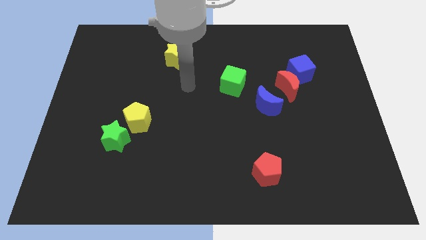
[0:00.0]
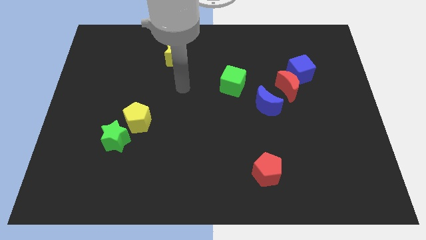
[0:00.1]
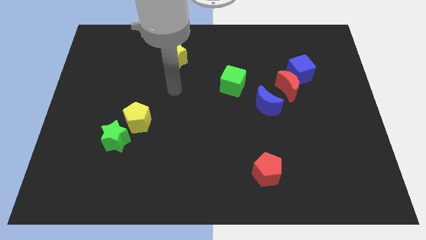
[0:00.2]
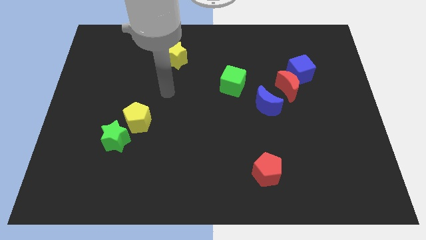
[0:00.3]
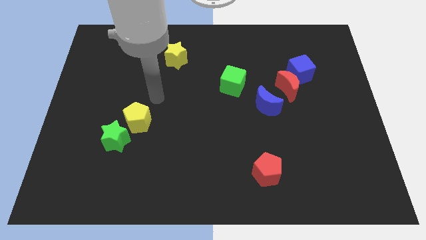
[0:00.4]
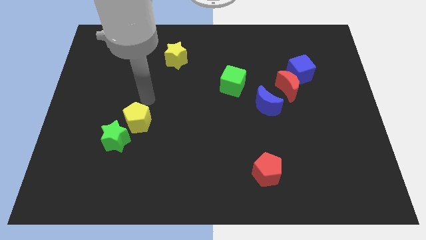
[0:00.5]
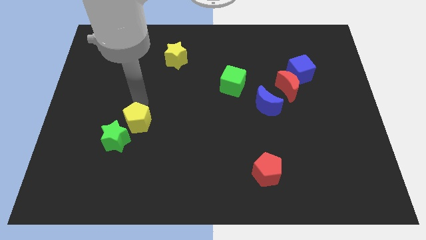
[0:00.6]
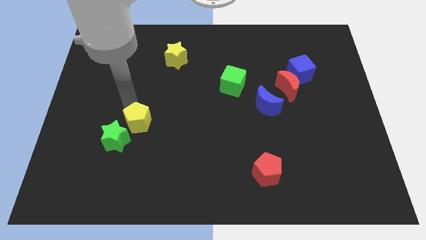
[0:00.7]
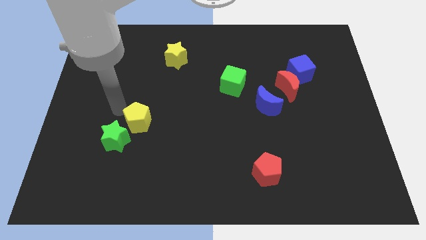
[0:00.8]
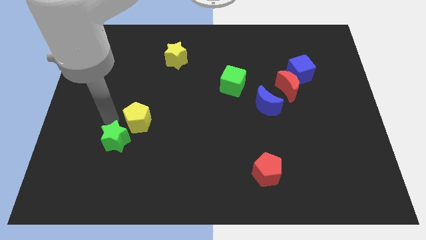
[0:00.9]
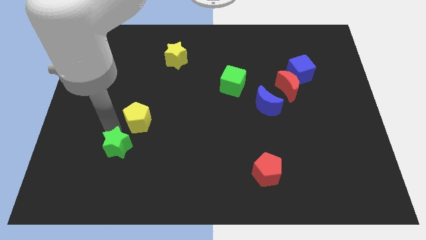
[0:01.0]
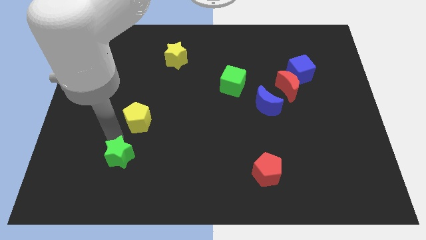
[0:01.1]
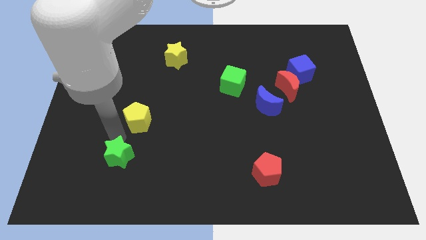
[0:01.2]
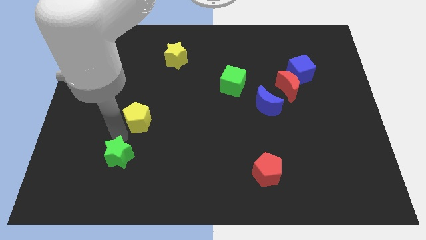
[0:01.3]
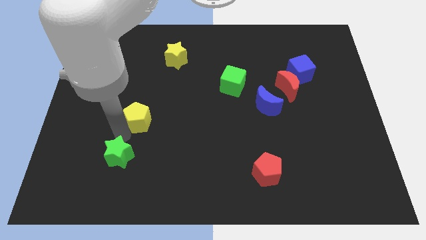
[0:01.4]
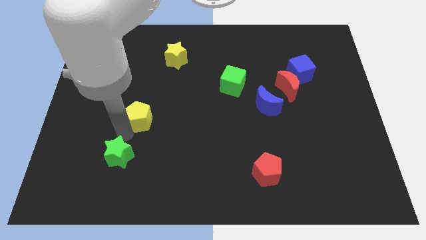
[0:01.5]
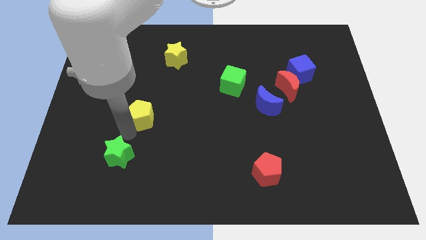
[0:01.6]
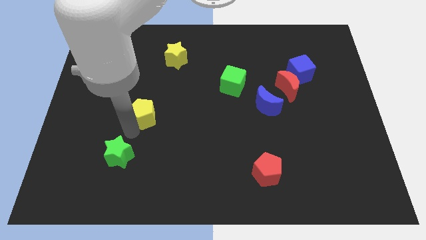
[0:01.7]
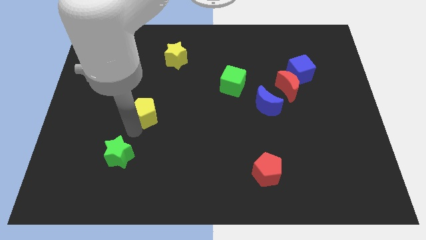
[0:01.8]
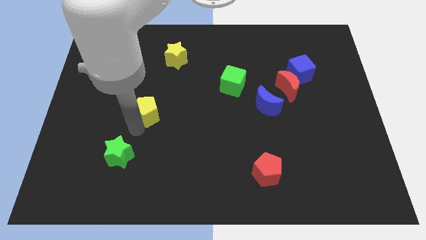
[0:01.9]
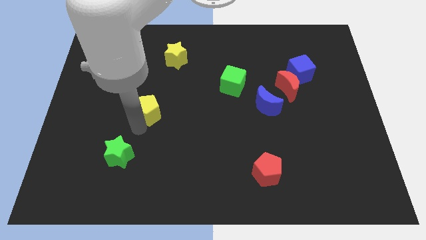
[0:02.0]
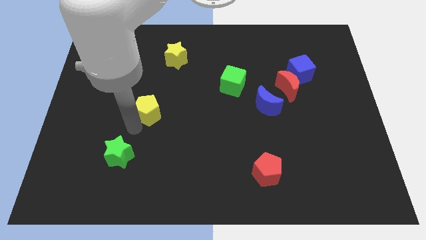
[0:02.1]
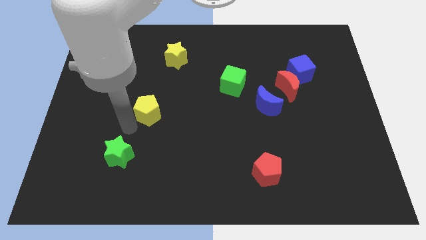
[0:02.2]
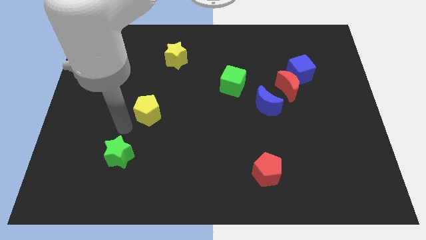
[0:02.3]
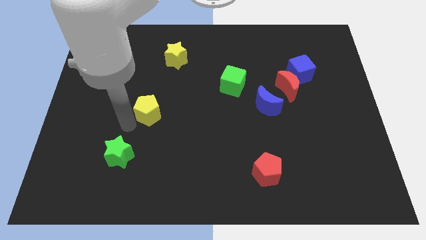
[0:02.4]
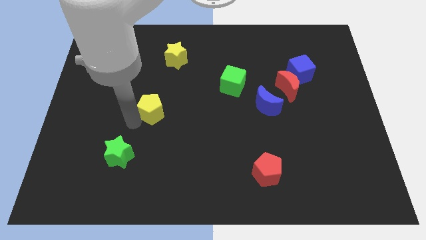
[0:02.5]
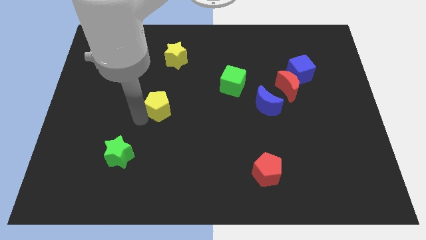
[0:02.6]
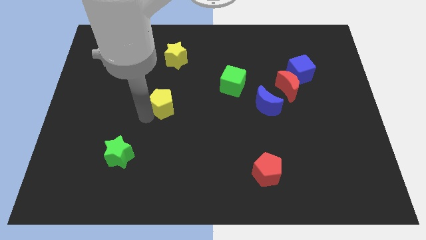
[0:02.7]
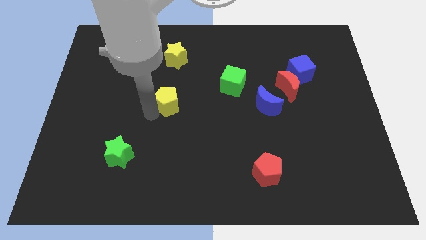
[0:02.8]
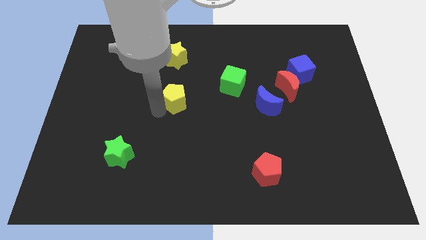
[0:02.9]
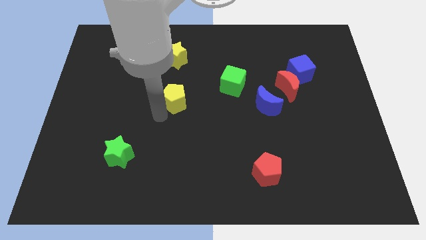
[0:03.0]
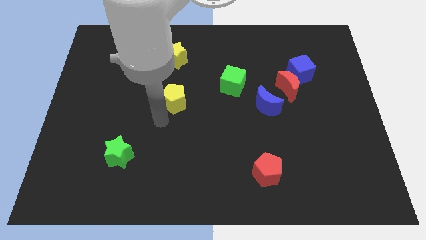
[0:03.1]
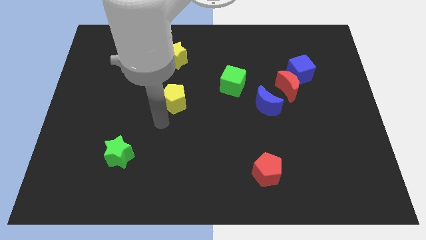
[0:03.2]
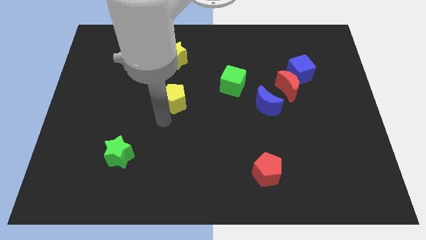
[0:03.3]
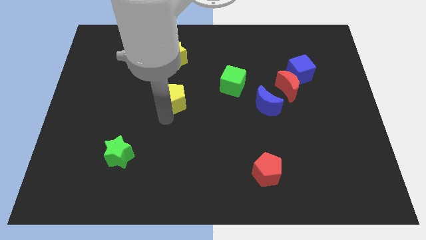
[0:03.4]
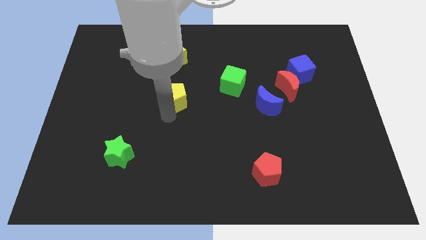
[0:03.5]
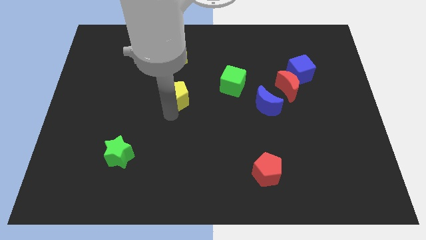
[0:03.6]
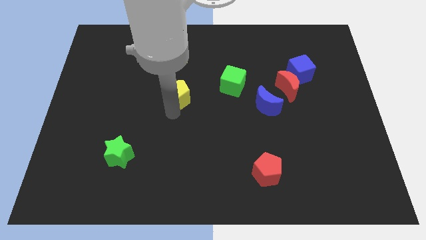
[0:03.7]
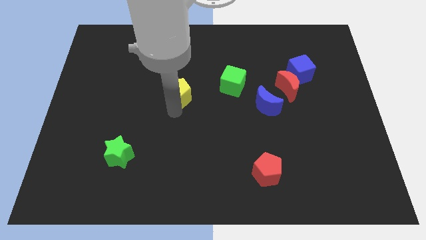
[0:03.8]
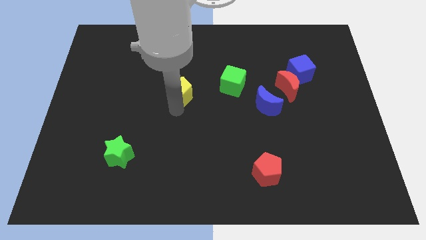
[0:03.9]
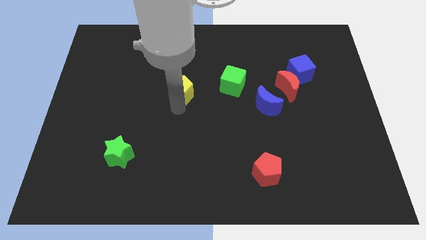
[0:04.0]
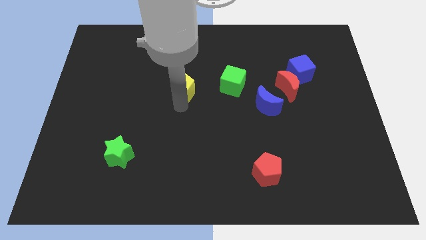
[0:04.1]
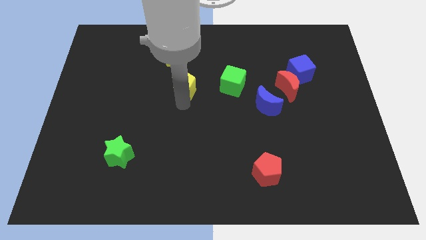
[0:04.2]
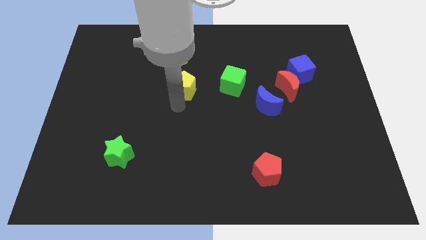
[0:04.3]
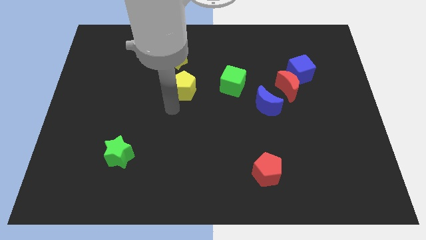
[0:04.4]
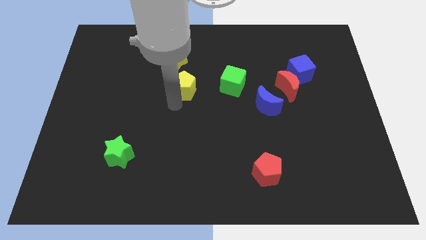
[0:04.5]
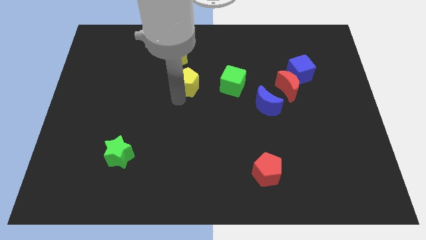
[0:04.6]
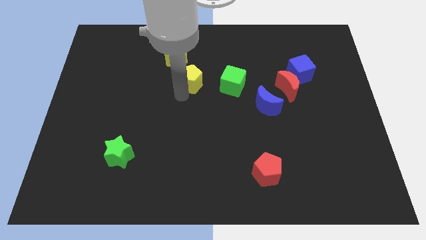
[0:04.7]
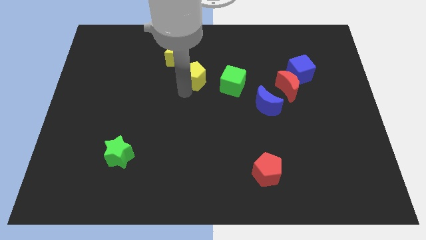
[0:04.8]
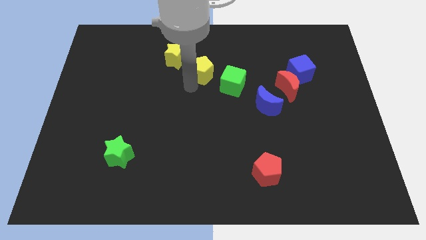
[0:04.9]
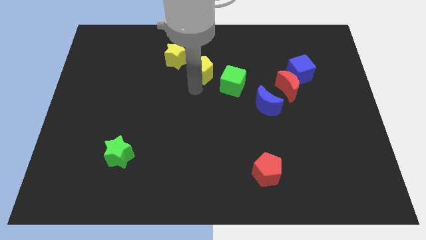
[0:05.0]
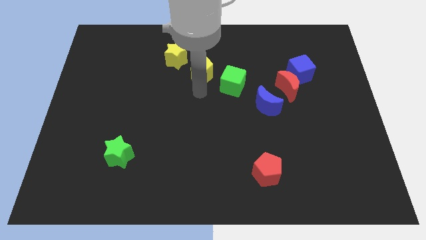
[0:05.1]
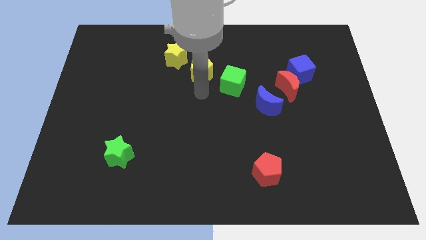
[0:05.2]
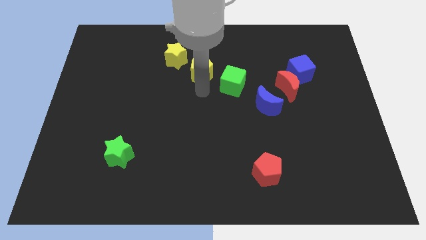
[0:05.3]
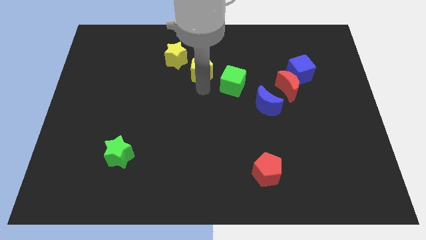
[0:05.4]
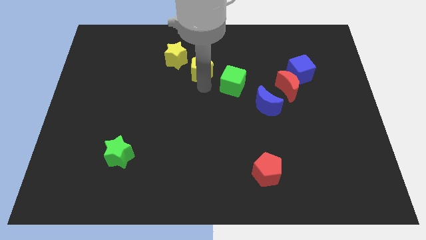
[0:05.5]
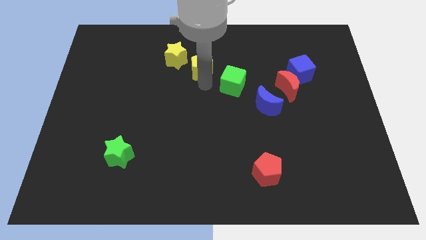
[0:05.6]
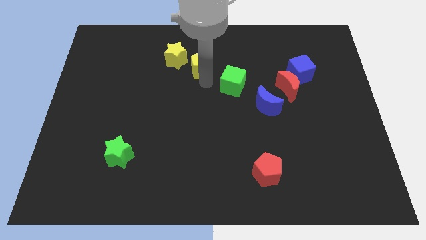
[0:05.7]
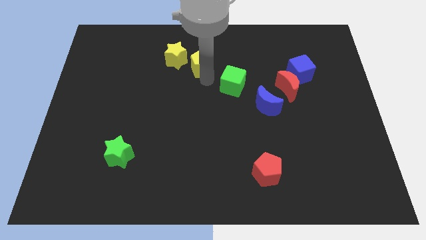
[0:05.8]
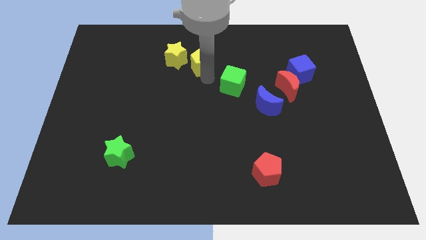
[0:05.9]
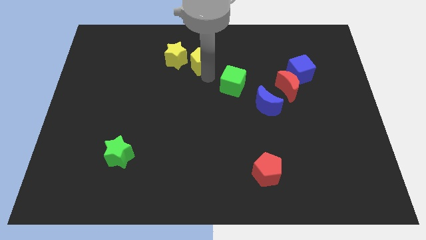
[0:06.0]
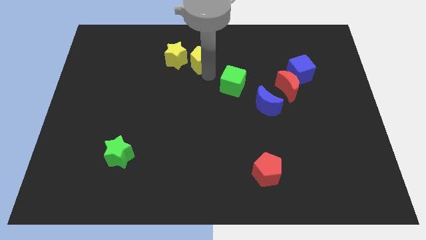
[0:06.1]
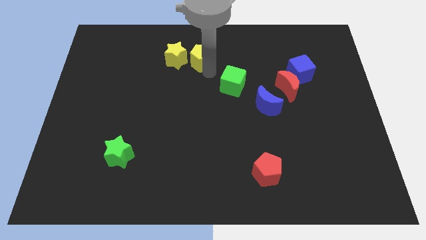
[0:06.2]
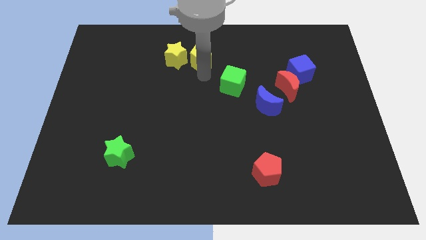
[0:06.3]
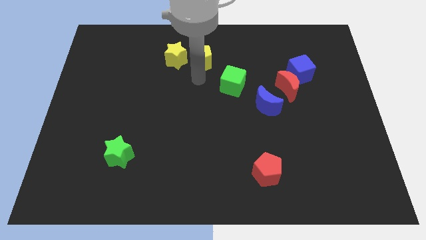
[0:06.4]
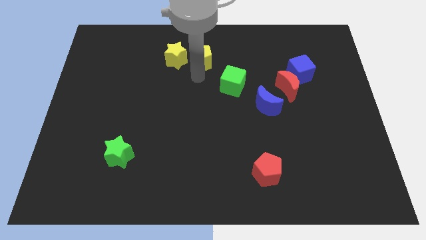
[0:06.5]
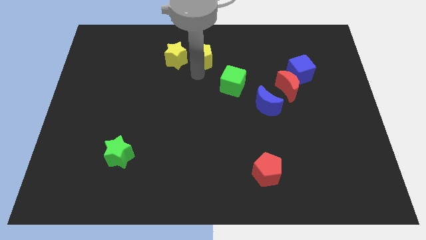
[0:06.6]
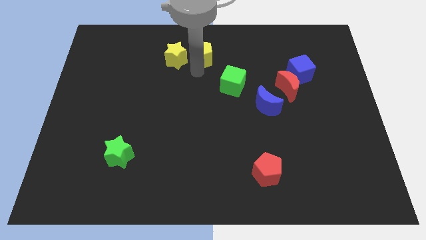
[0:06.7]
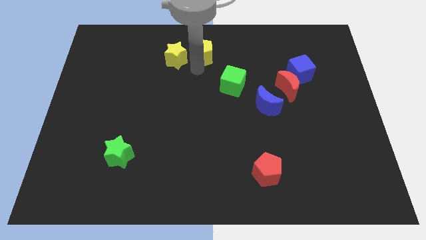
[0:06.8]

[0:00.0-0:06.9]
put the yellow pentagon to the towards your base
